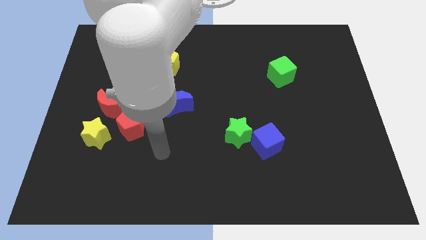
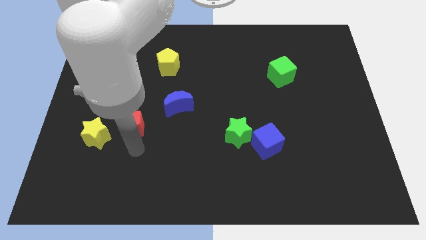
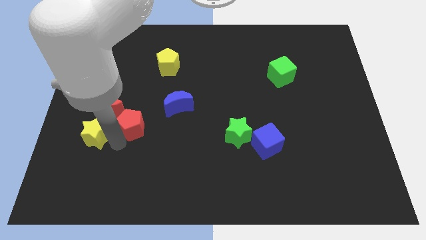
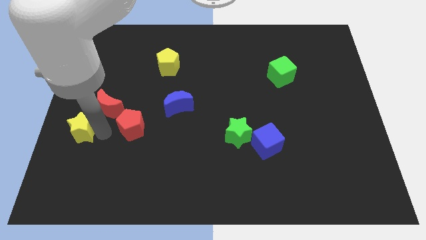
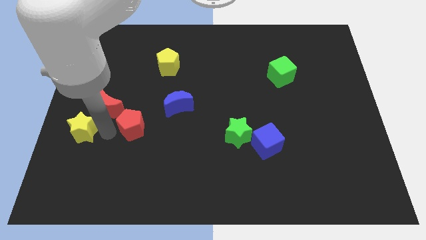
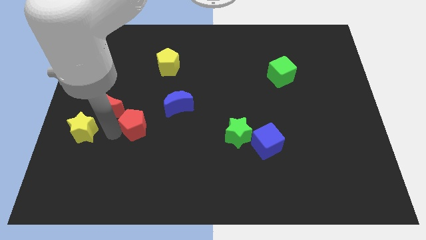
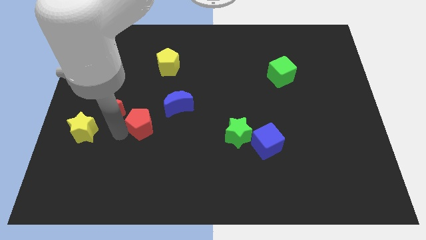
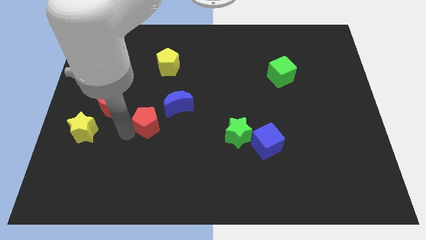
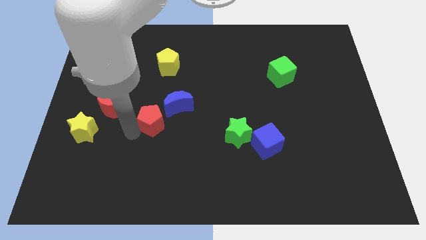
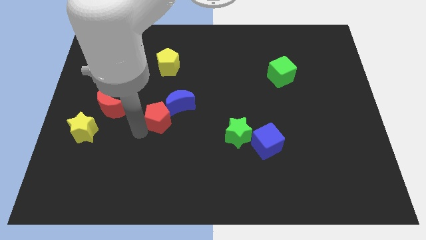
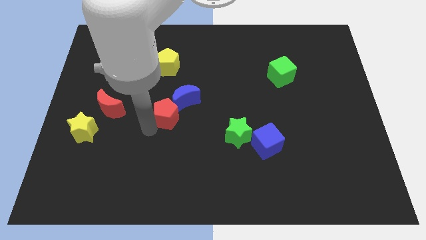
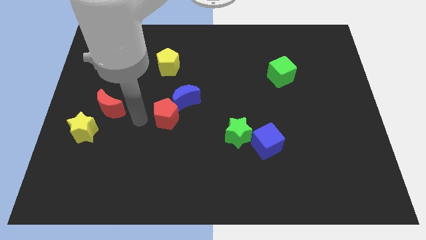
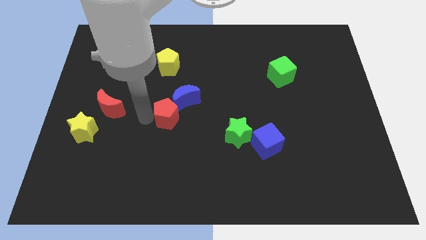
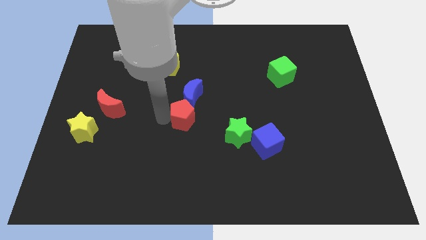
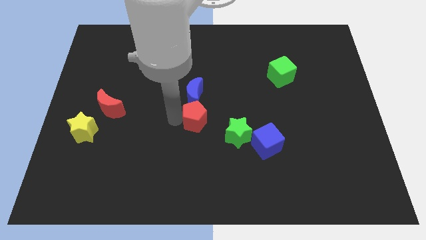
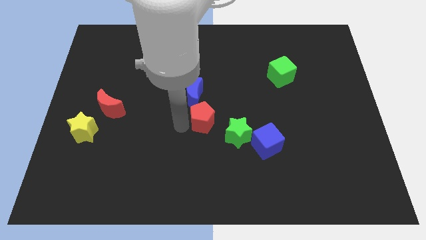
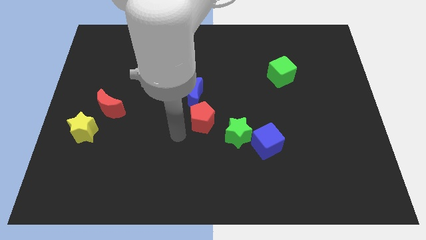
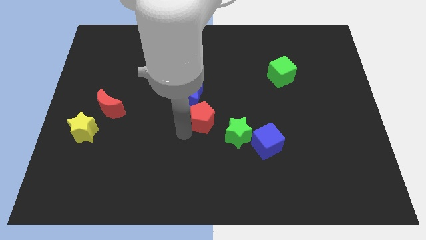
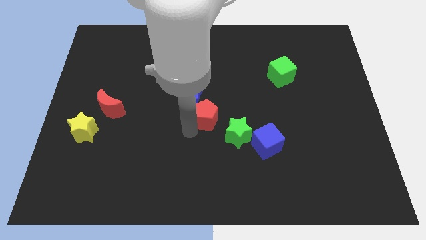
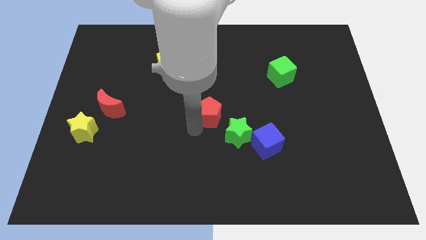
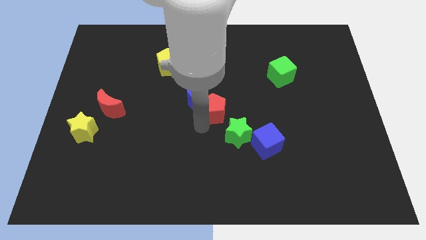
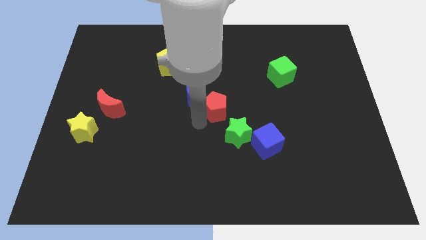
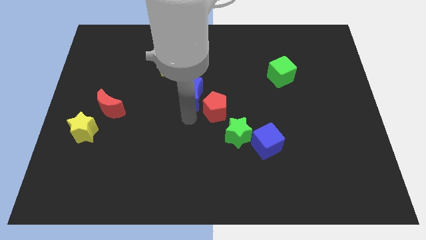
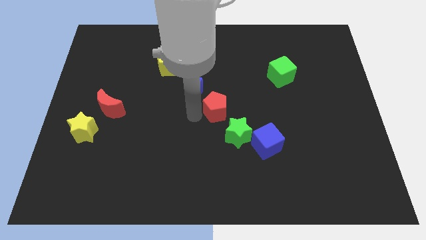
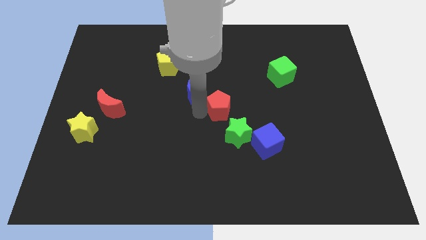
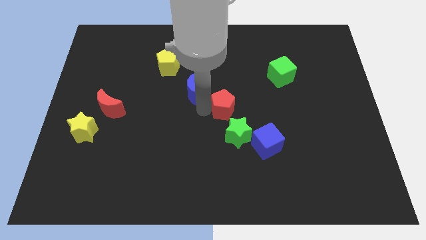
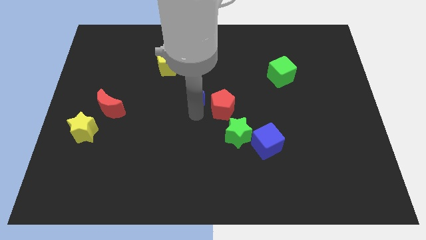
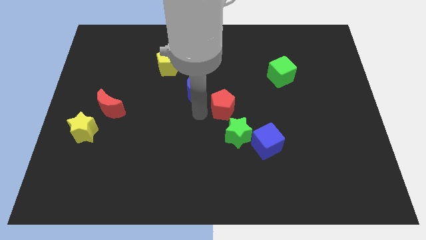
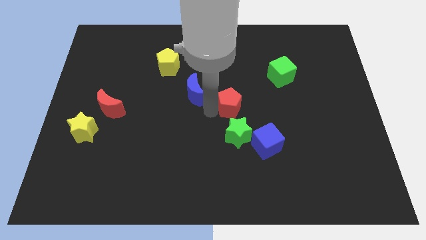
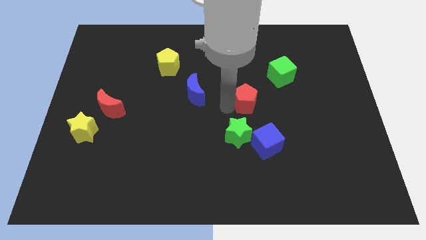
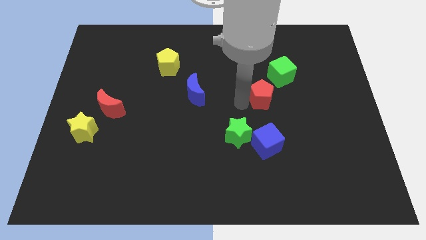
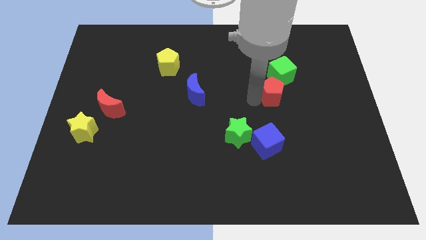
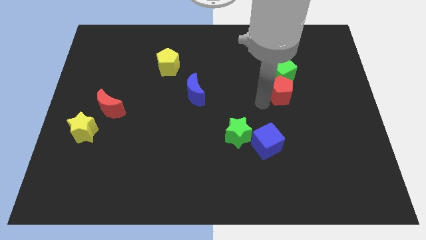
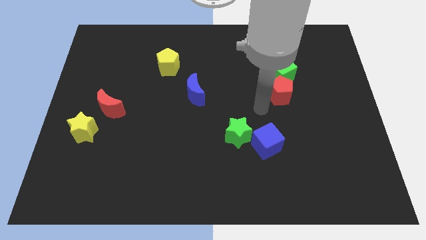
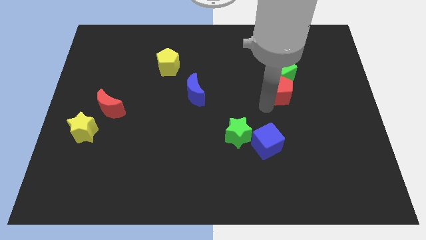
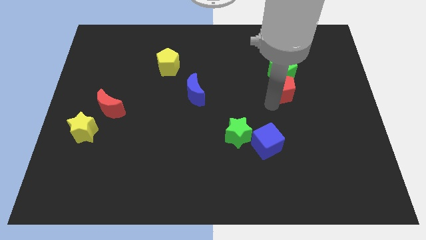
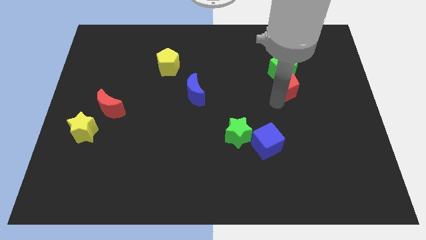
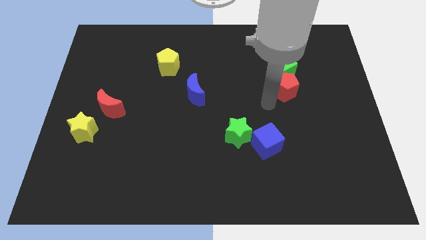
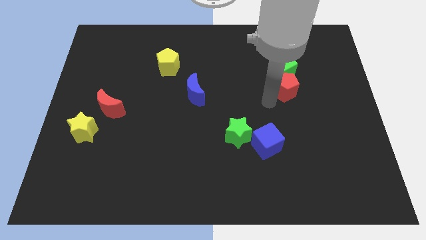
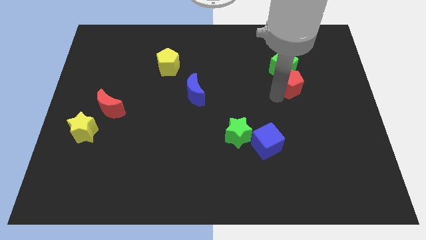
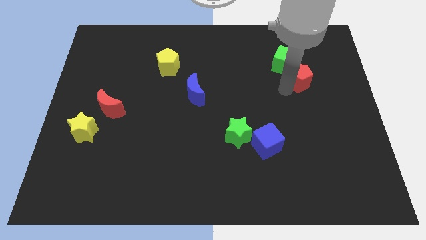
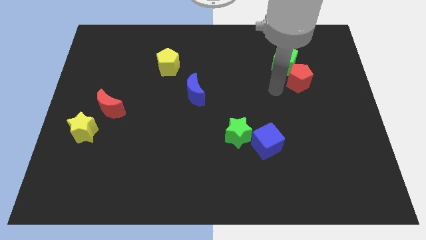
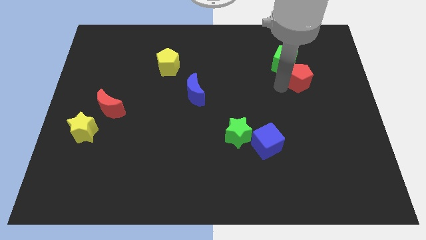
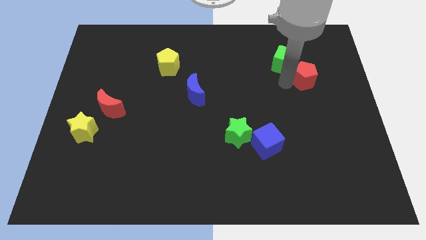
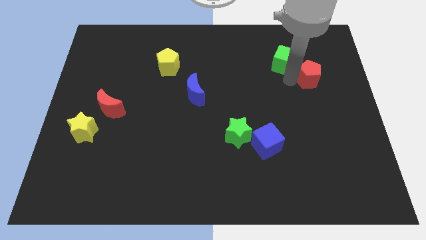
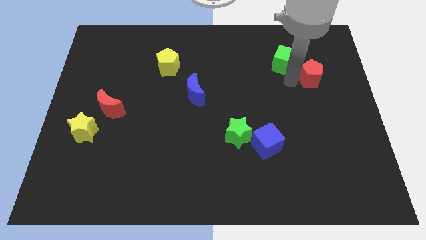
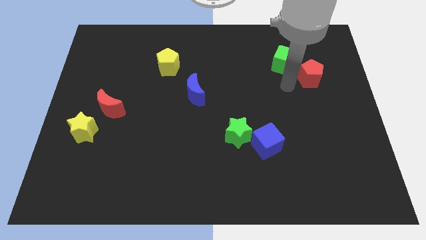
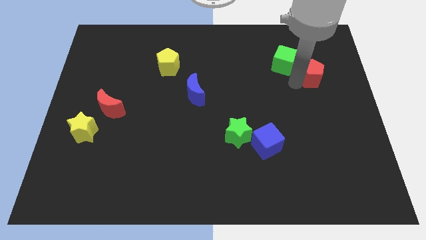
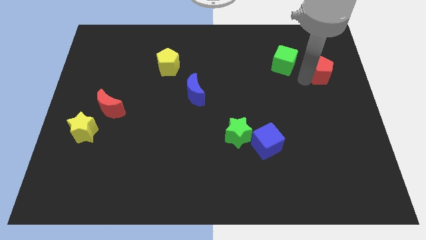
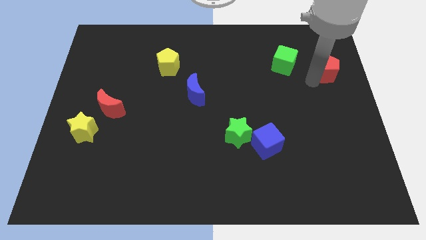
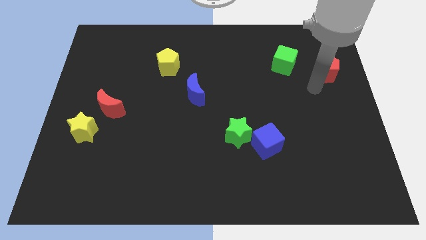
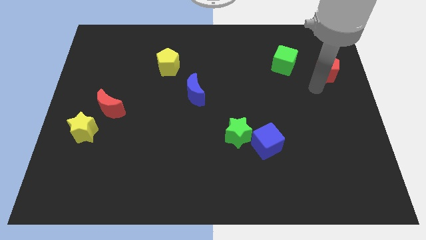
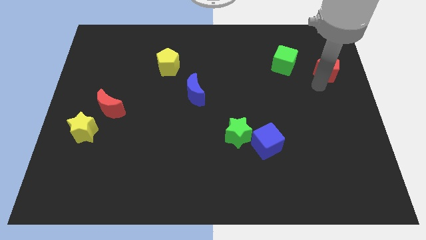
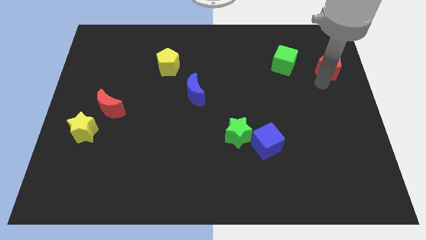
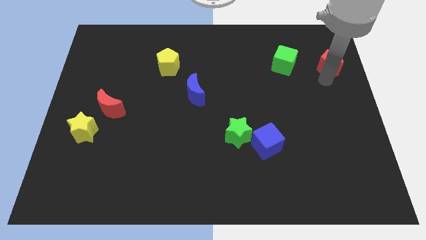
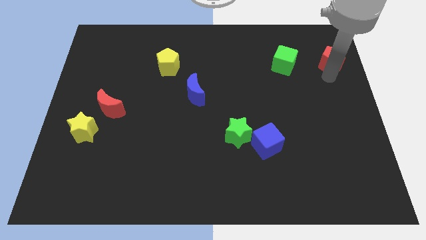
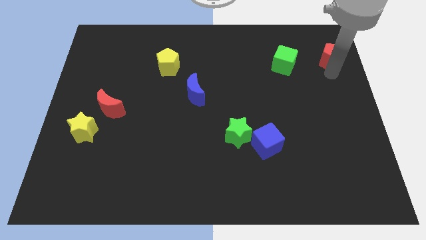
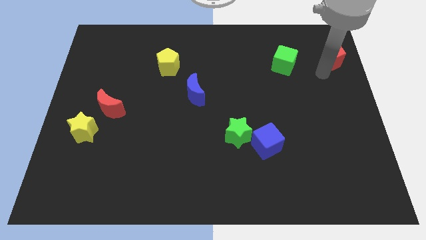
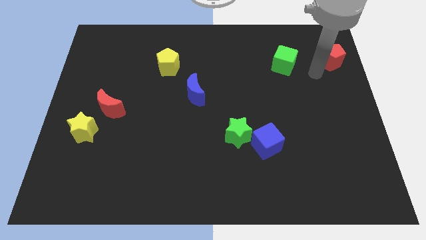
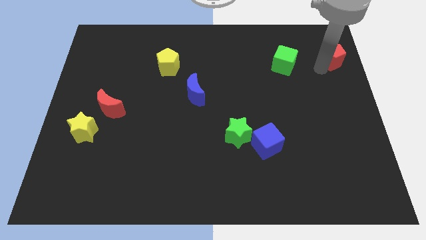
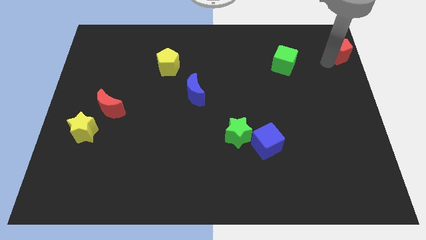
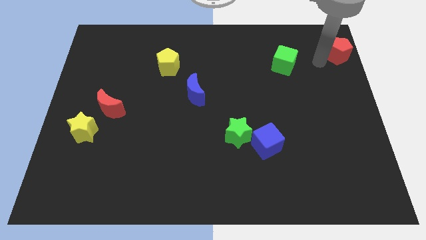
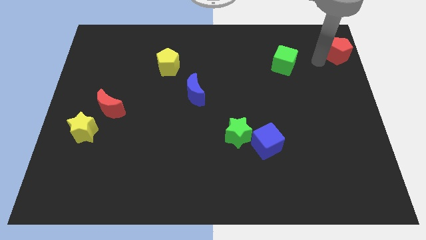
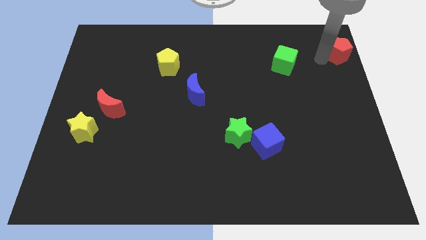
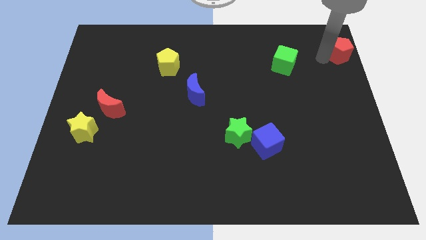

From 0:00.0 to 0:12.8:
move the red pentagon to the top right corner

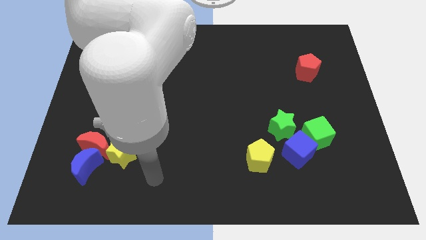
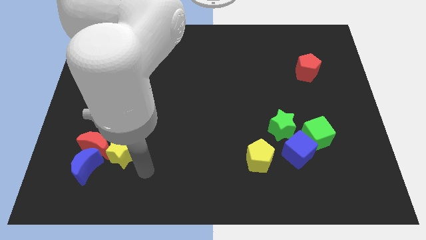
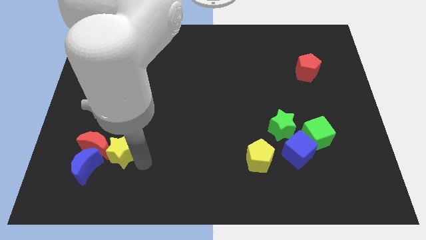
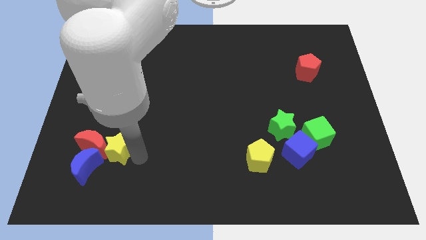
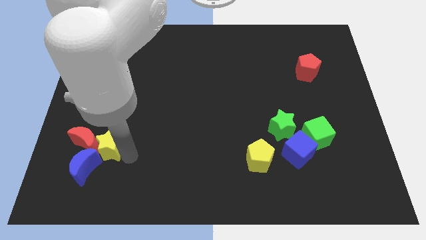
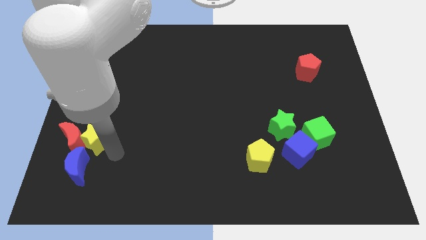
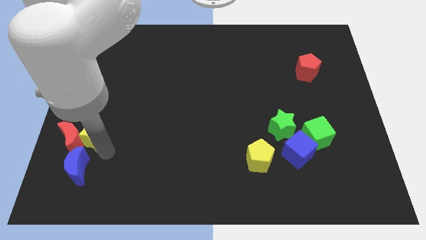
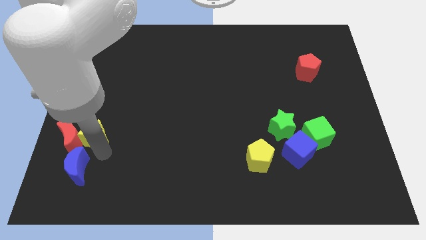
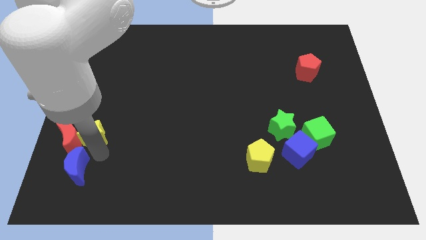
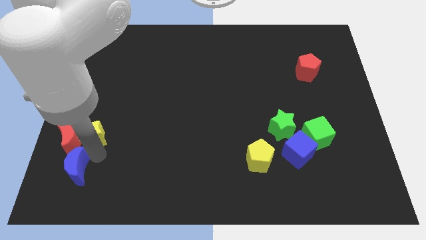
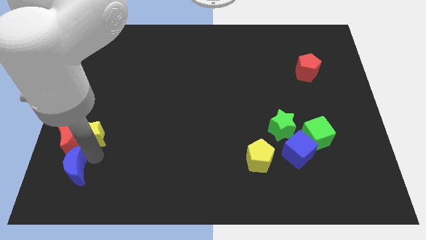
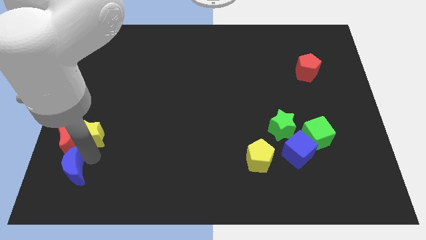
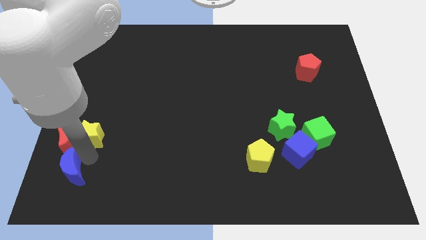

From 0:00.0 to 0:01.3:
slide the blue moon to the bottom left corner

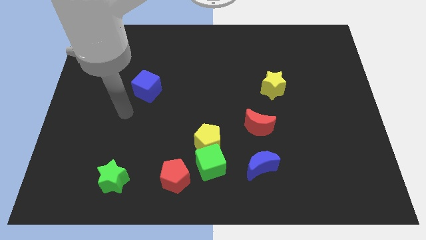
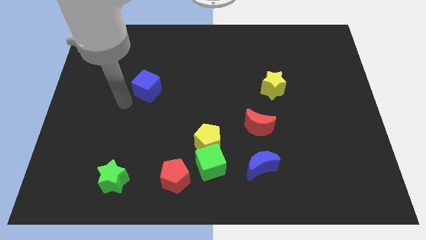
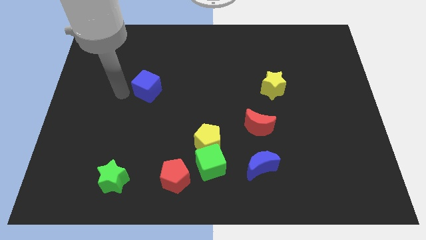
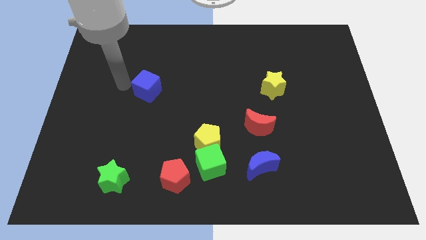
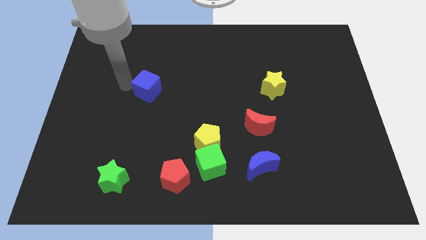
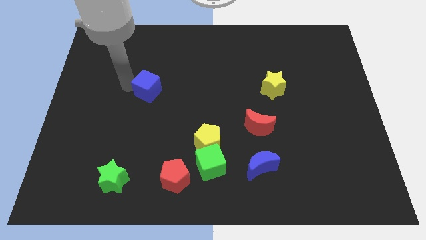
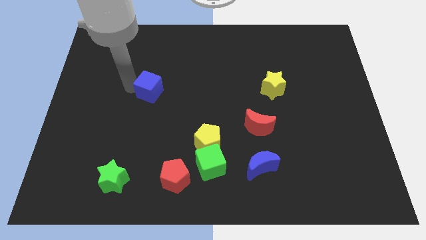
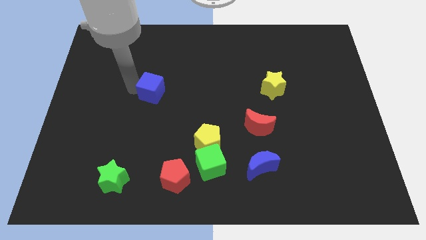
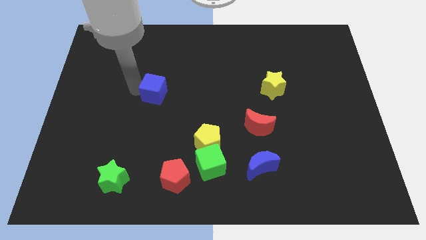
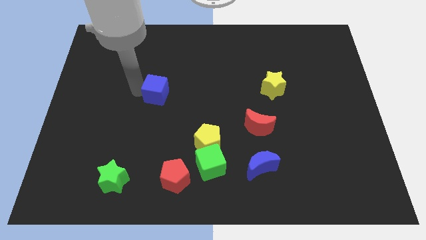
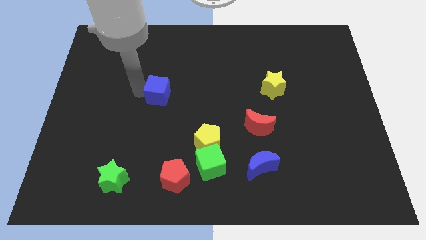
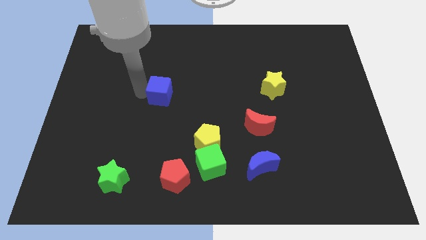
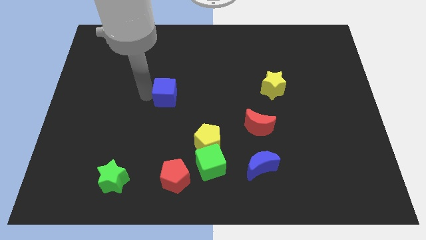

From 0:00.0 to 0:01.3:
slide the blue cube to the center of the board
